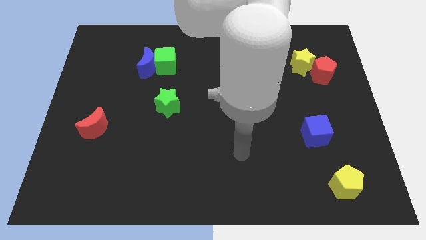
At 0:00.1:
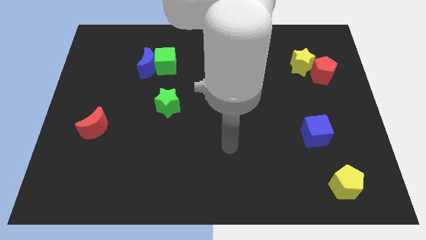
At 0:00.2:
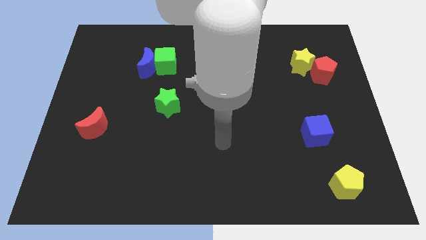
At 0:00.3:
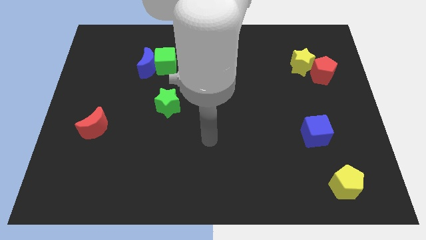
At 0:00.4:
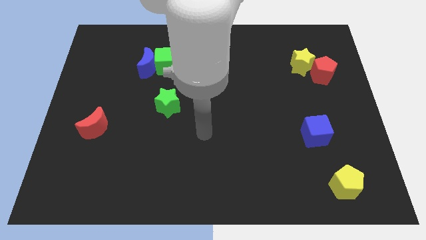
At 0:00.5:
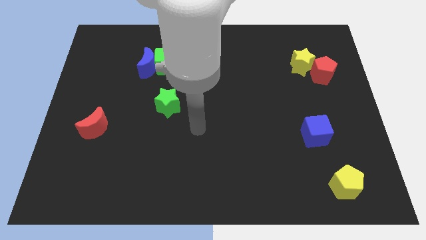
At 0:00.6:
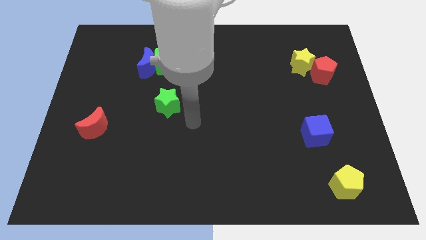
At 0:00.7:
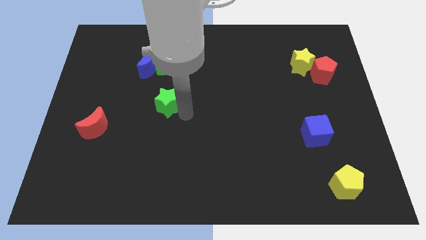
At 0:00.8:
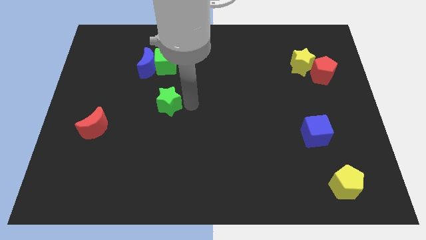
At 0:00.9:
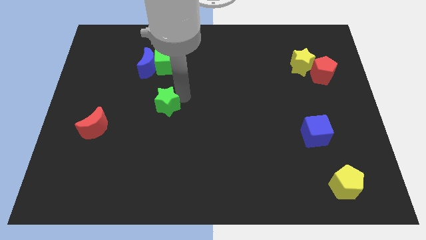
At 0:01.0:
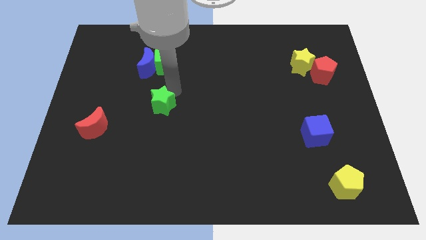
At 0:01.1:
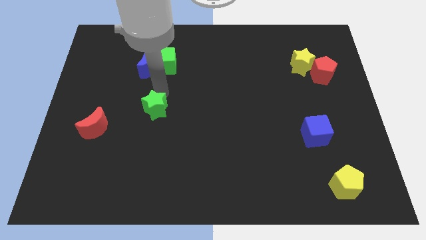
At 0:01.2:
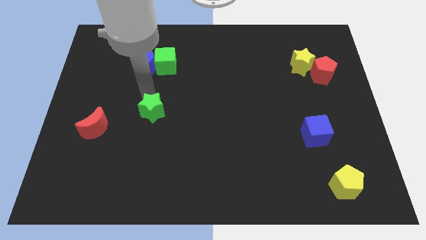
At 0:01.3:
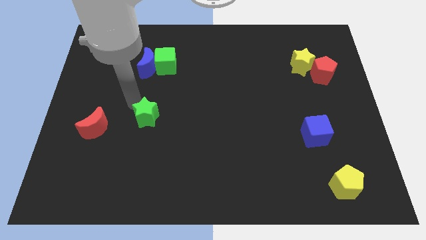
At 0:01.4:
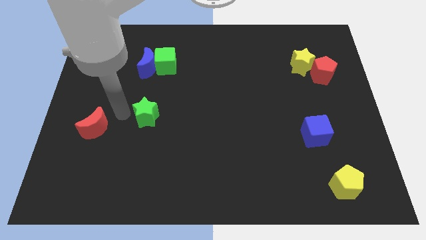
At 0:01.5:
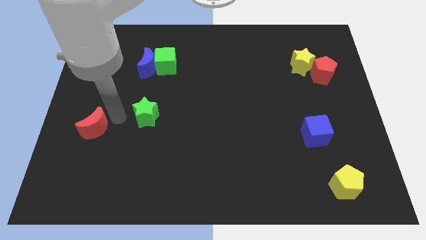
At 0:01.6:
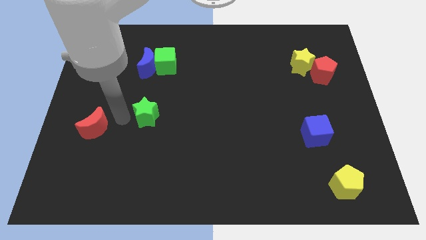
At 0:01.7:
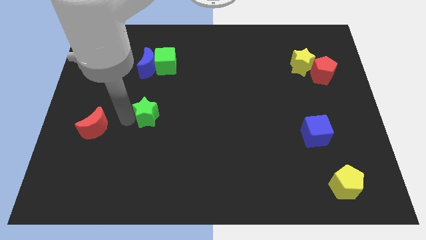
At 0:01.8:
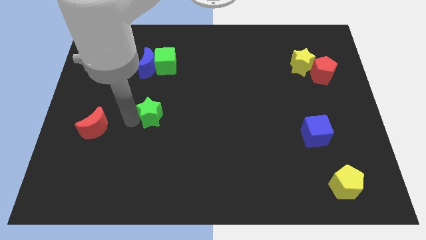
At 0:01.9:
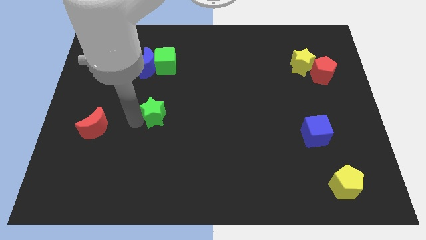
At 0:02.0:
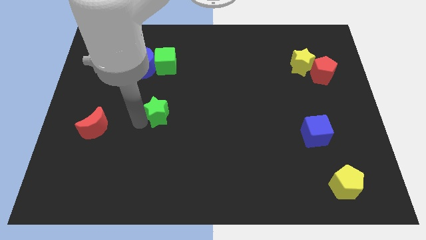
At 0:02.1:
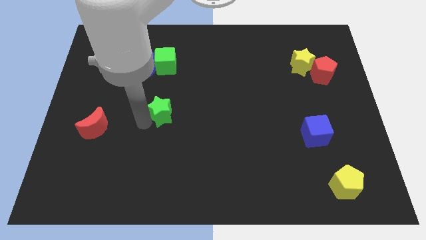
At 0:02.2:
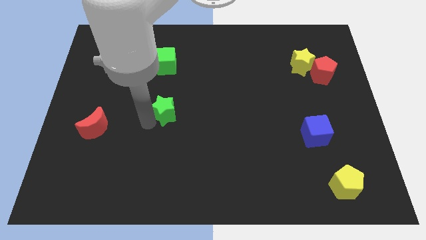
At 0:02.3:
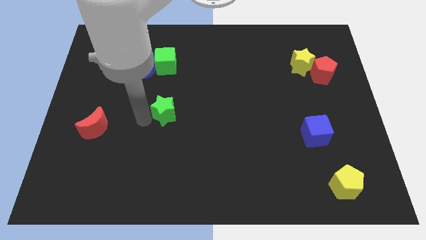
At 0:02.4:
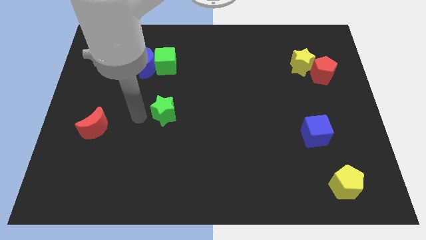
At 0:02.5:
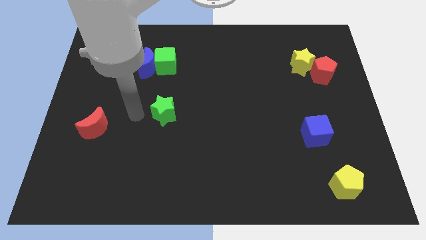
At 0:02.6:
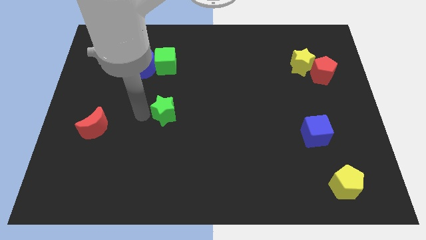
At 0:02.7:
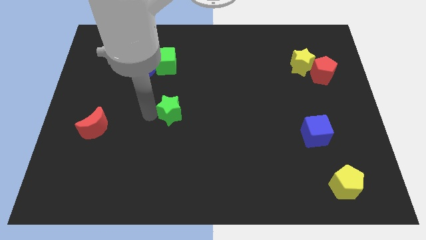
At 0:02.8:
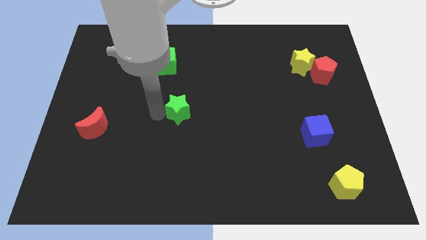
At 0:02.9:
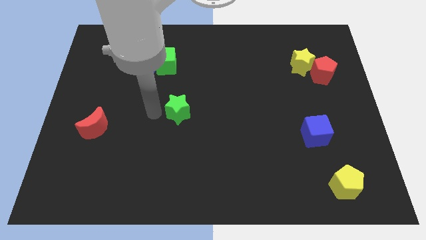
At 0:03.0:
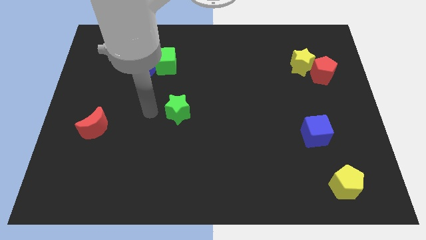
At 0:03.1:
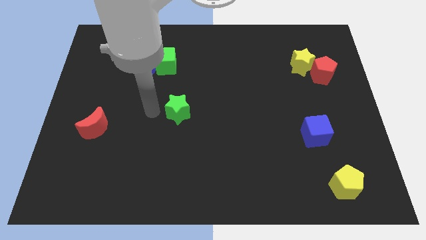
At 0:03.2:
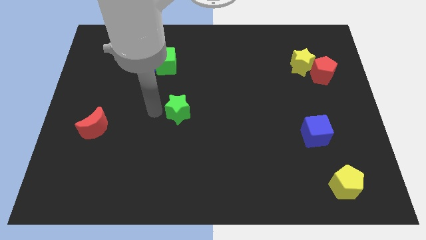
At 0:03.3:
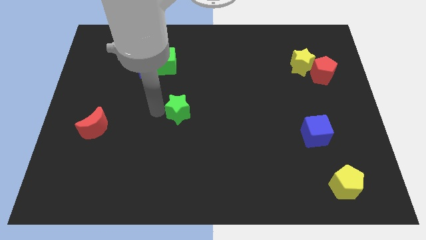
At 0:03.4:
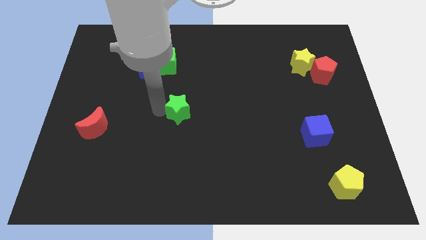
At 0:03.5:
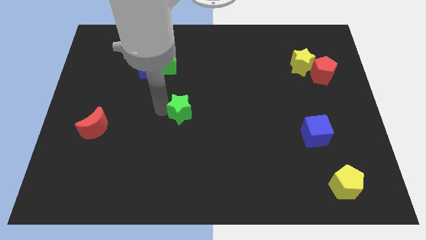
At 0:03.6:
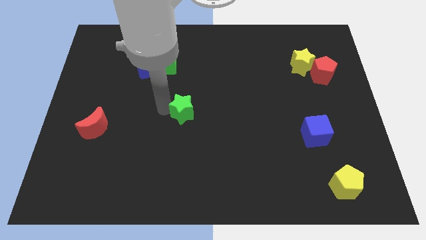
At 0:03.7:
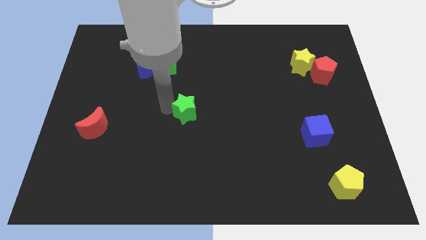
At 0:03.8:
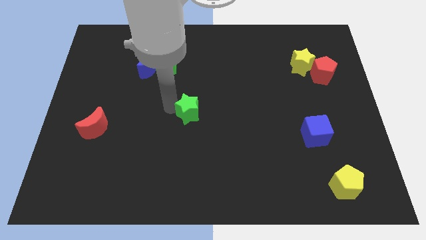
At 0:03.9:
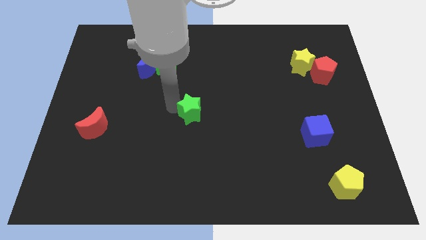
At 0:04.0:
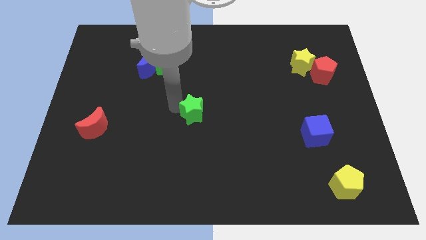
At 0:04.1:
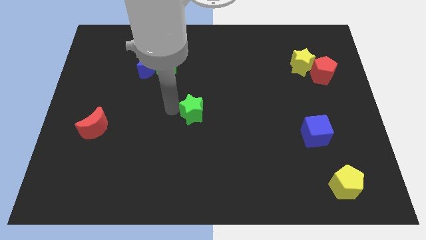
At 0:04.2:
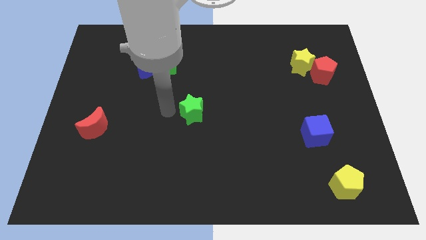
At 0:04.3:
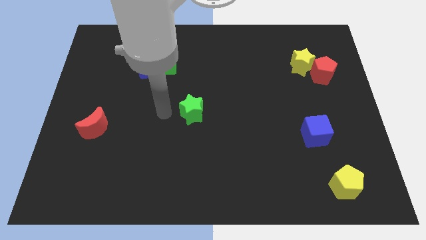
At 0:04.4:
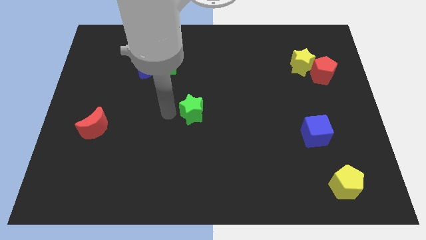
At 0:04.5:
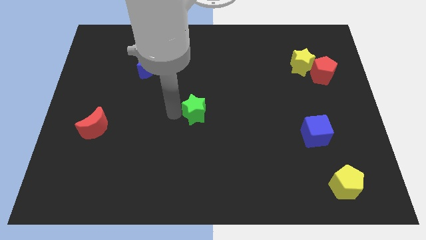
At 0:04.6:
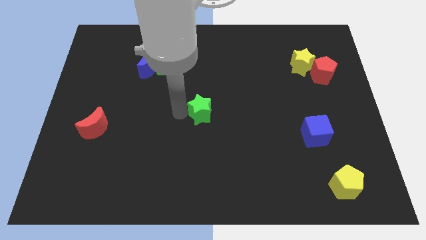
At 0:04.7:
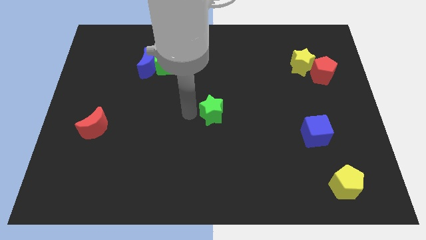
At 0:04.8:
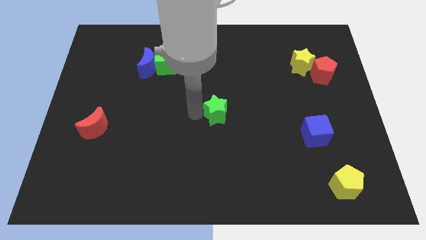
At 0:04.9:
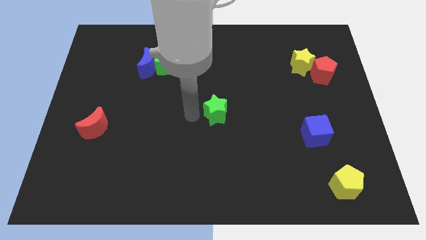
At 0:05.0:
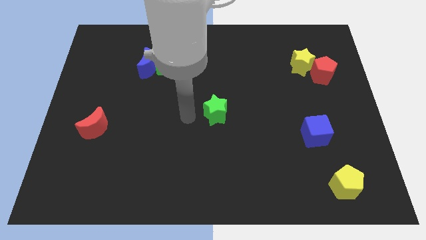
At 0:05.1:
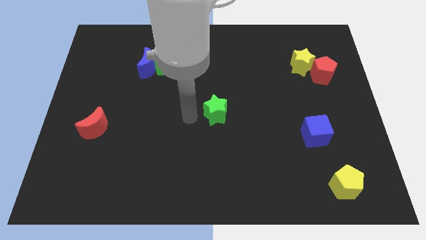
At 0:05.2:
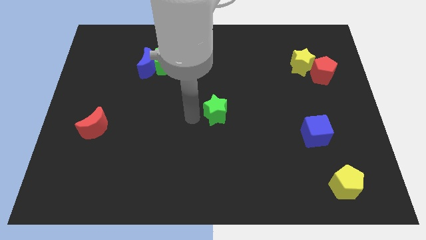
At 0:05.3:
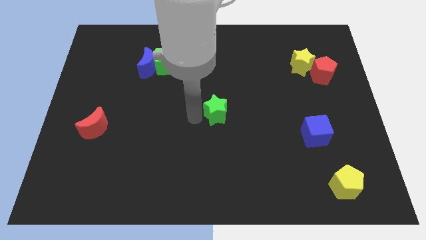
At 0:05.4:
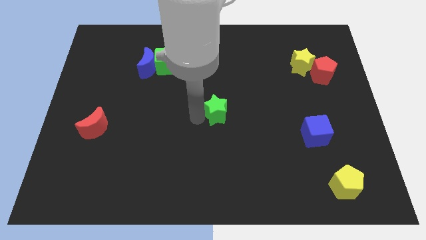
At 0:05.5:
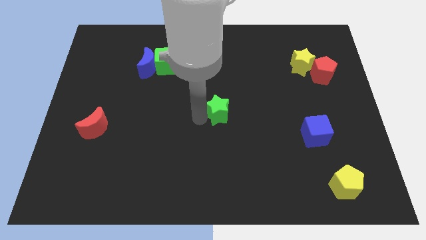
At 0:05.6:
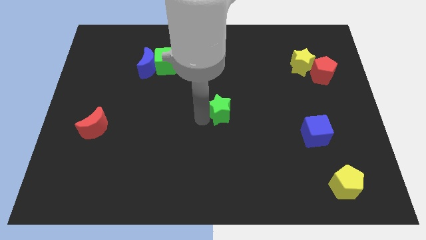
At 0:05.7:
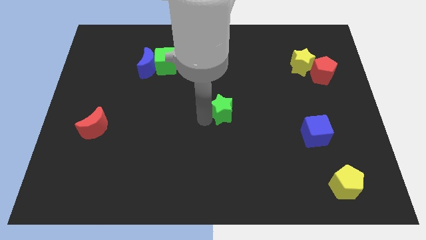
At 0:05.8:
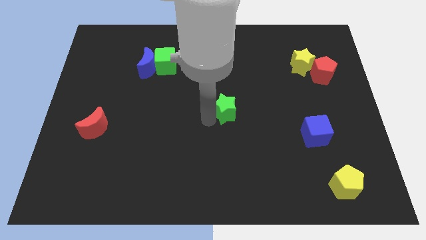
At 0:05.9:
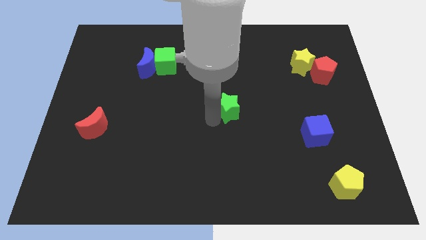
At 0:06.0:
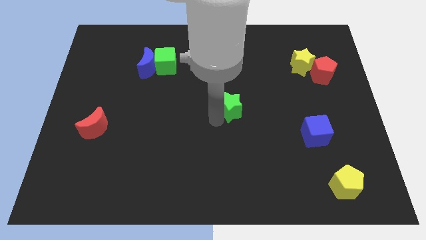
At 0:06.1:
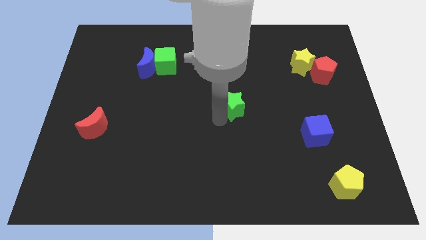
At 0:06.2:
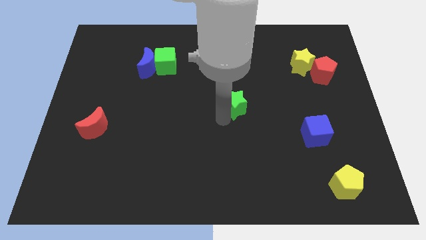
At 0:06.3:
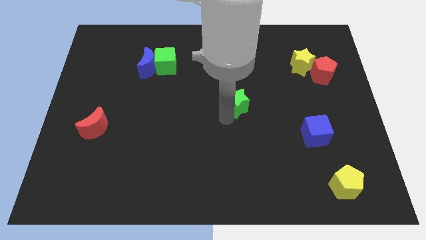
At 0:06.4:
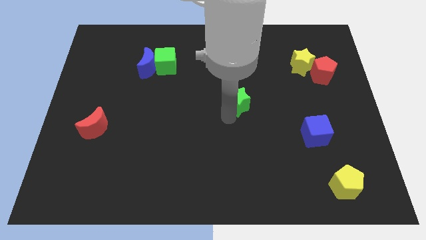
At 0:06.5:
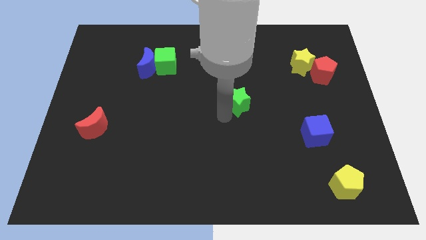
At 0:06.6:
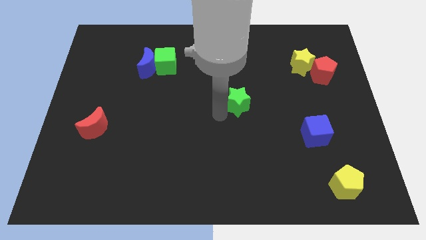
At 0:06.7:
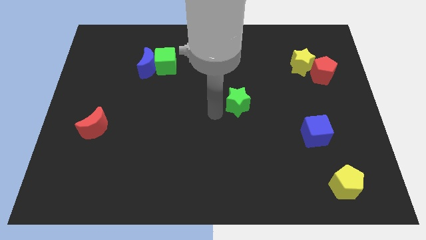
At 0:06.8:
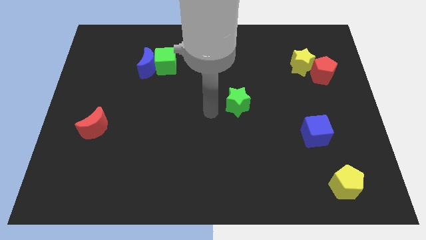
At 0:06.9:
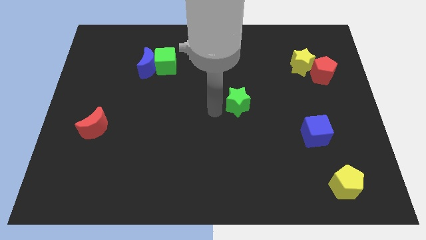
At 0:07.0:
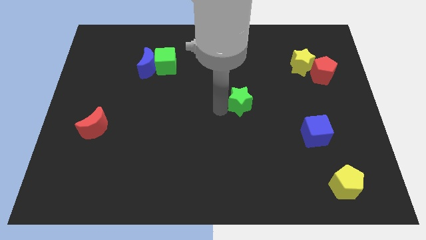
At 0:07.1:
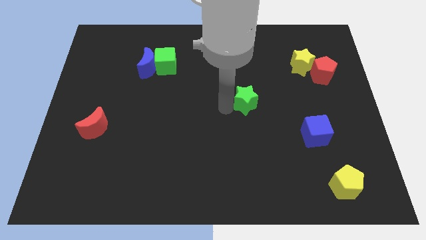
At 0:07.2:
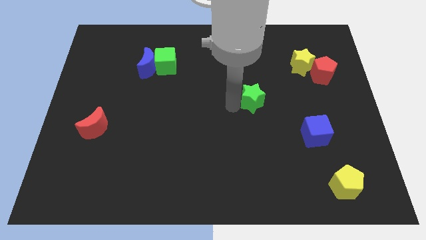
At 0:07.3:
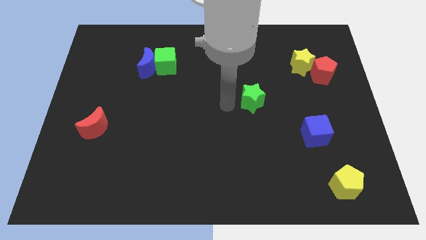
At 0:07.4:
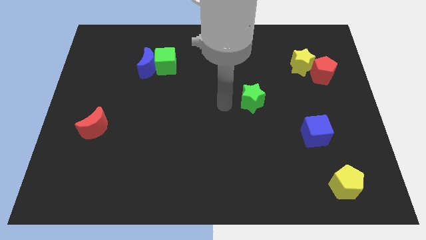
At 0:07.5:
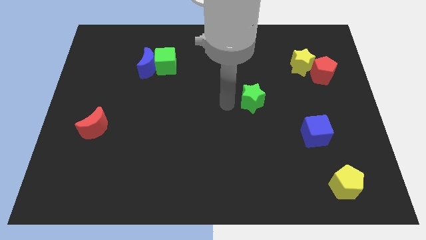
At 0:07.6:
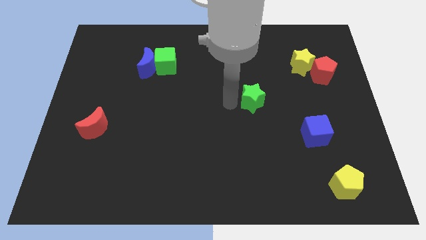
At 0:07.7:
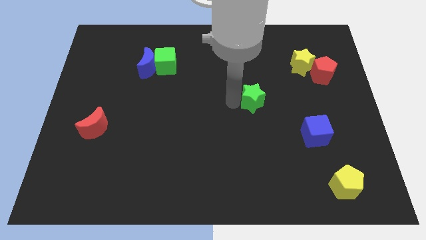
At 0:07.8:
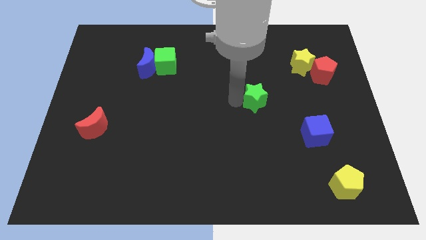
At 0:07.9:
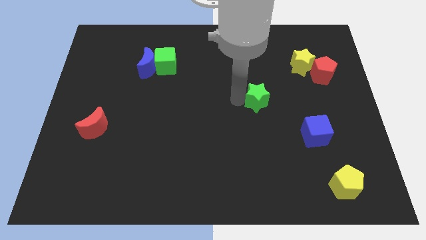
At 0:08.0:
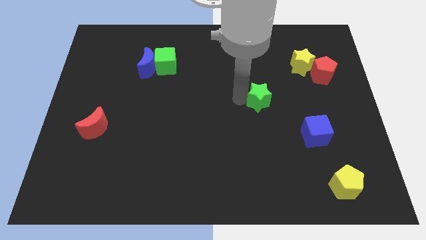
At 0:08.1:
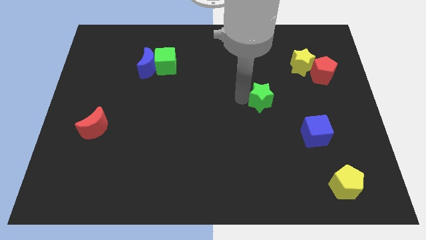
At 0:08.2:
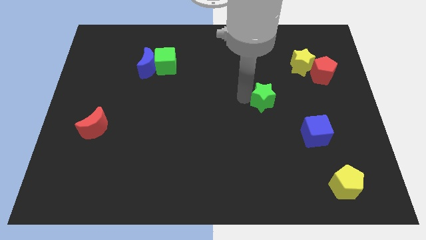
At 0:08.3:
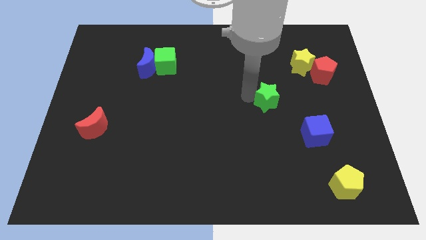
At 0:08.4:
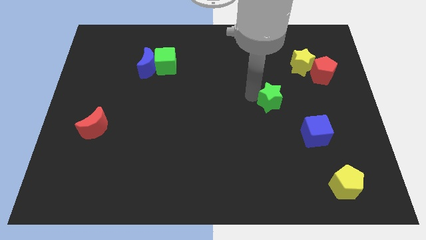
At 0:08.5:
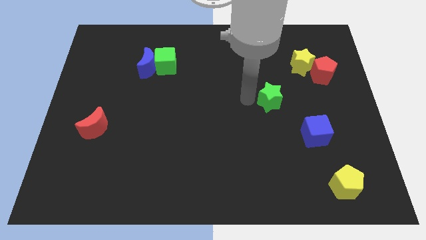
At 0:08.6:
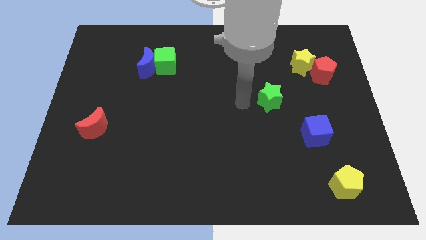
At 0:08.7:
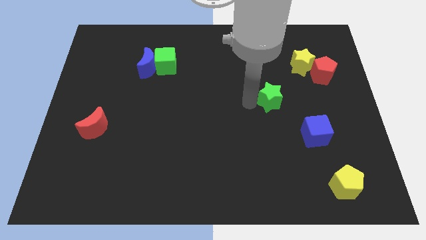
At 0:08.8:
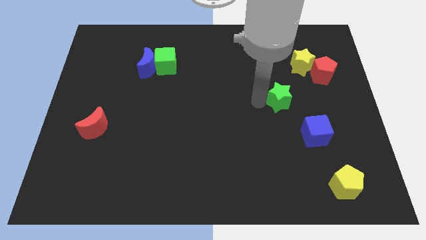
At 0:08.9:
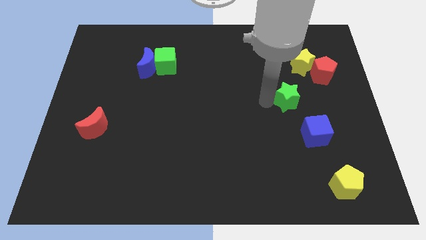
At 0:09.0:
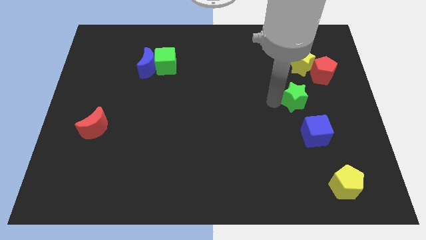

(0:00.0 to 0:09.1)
push the green star below the yellow star
